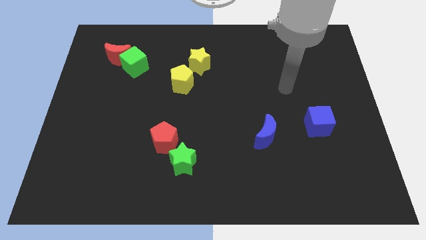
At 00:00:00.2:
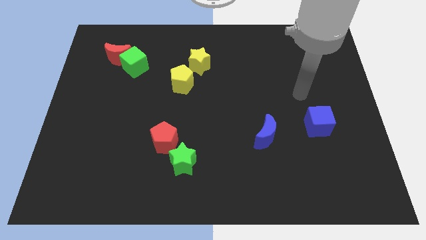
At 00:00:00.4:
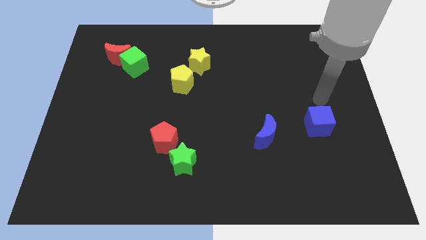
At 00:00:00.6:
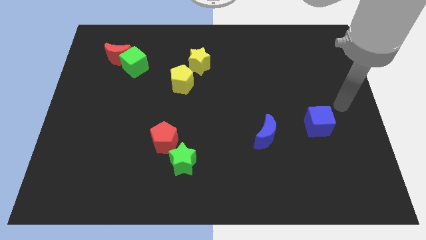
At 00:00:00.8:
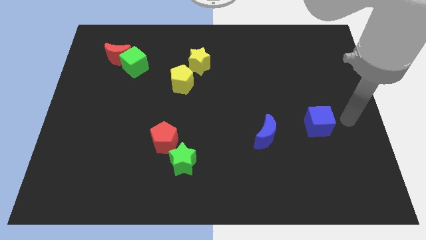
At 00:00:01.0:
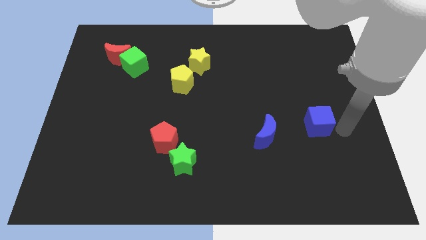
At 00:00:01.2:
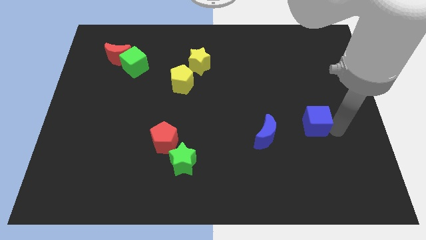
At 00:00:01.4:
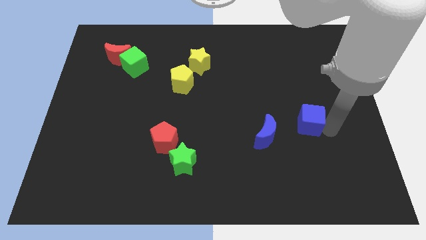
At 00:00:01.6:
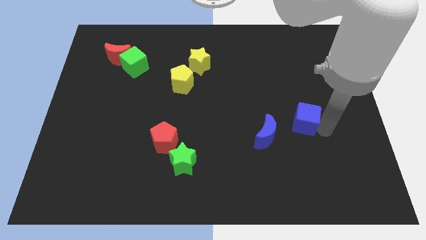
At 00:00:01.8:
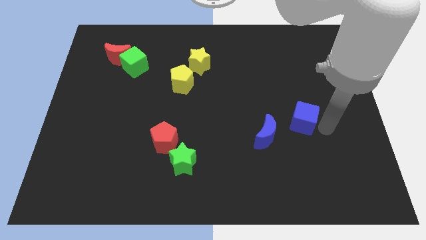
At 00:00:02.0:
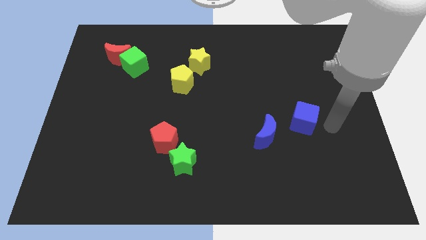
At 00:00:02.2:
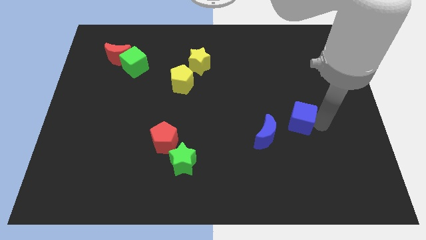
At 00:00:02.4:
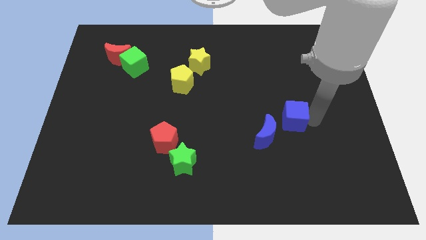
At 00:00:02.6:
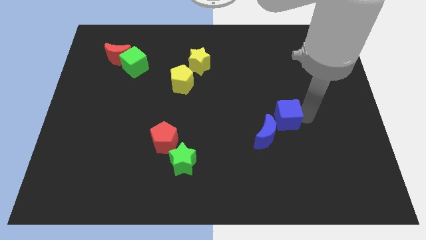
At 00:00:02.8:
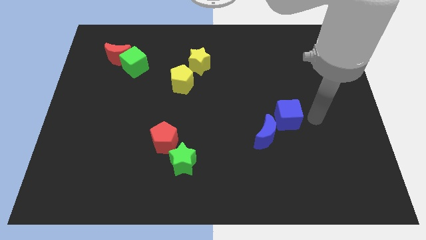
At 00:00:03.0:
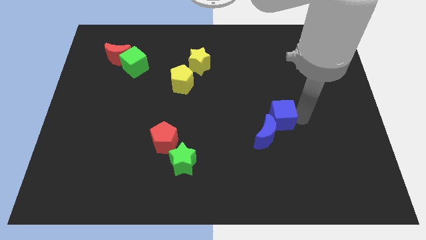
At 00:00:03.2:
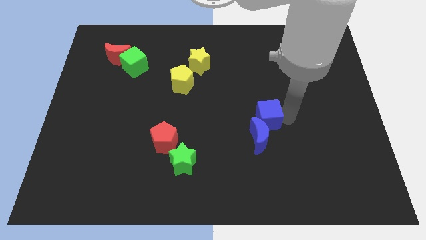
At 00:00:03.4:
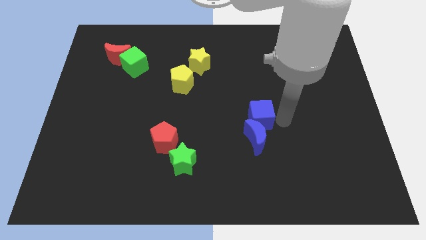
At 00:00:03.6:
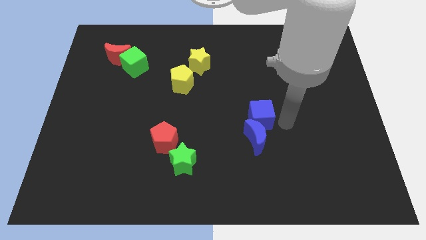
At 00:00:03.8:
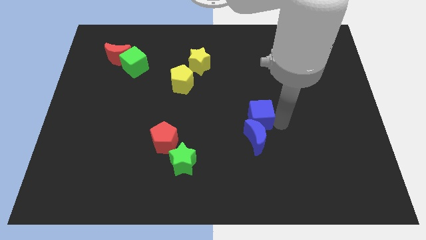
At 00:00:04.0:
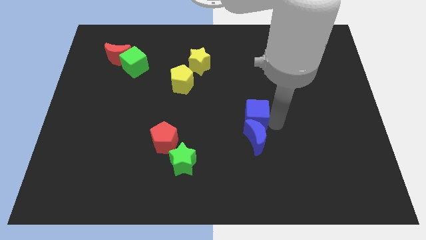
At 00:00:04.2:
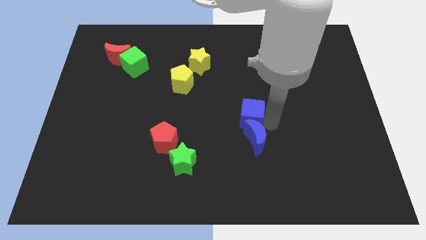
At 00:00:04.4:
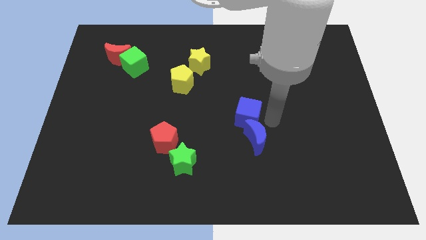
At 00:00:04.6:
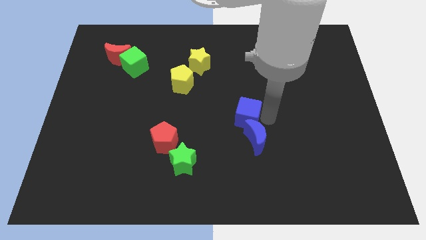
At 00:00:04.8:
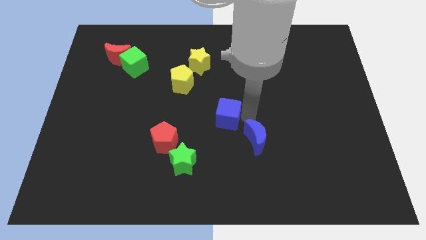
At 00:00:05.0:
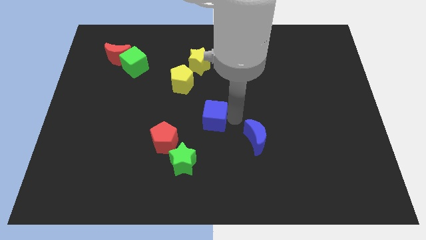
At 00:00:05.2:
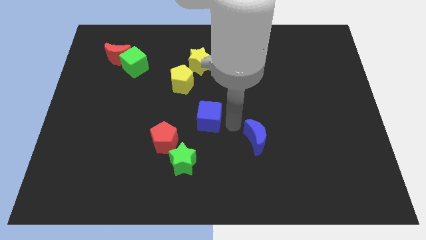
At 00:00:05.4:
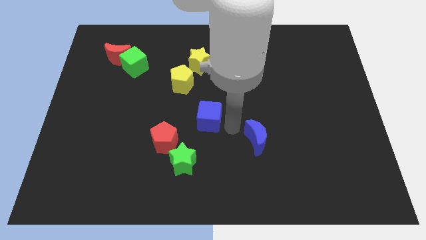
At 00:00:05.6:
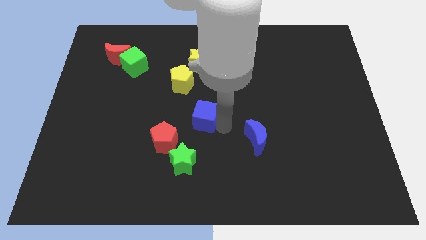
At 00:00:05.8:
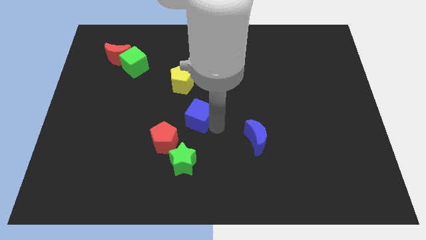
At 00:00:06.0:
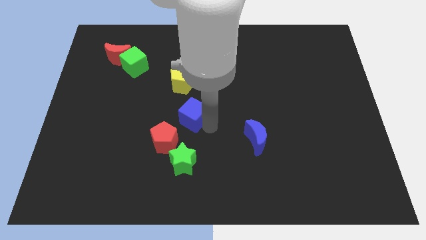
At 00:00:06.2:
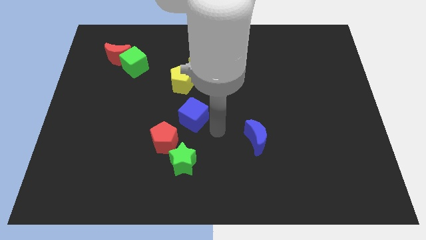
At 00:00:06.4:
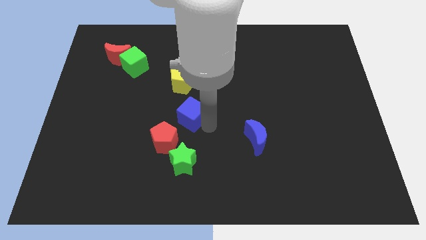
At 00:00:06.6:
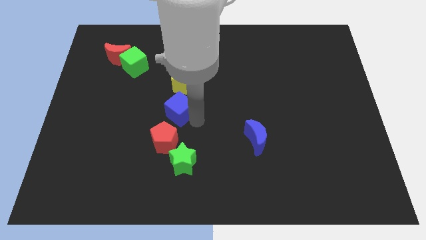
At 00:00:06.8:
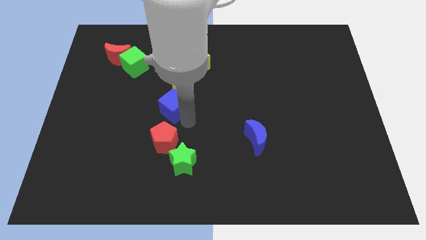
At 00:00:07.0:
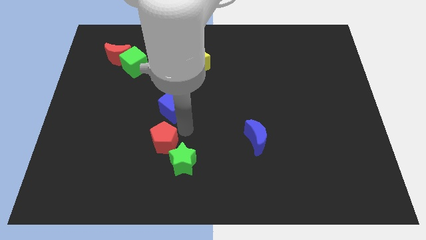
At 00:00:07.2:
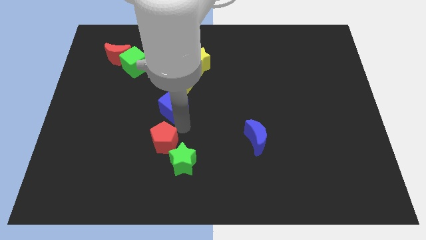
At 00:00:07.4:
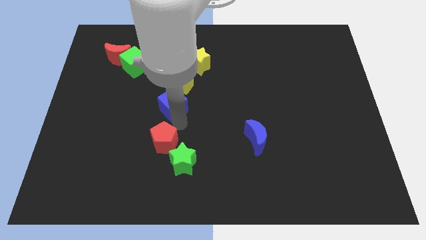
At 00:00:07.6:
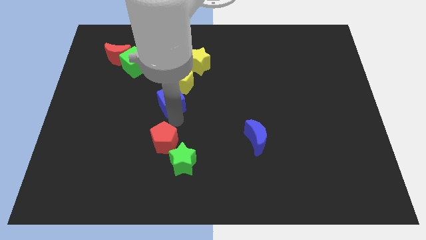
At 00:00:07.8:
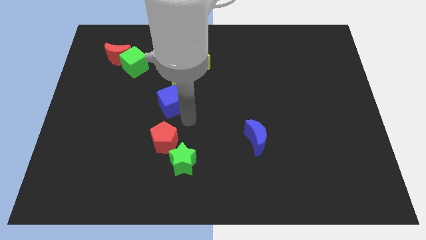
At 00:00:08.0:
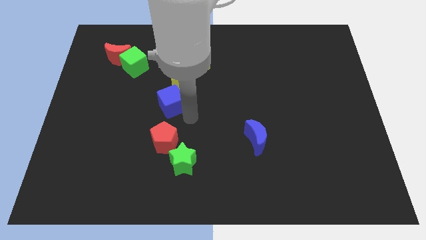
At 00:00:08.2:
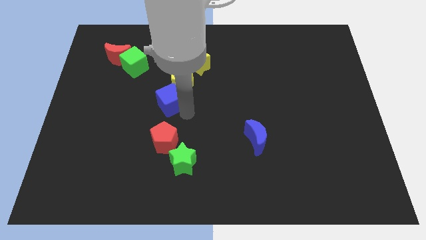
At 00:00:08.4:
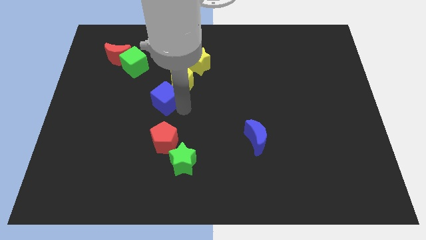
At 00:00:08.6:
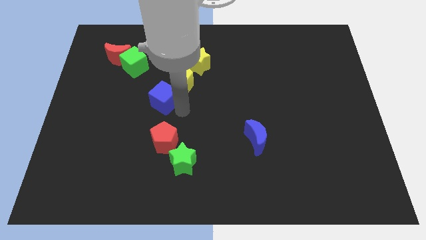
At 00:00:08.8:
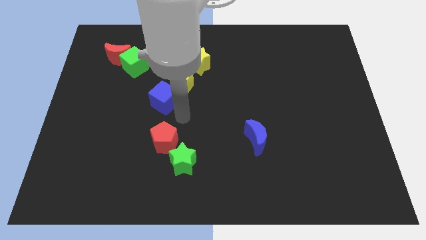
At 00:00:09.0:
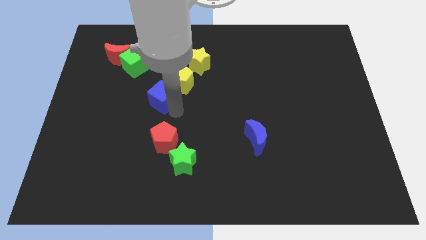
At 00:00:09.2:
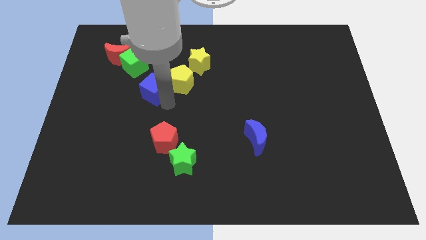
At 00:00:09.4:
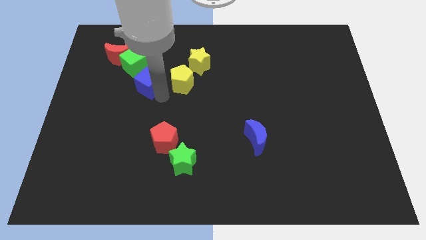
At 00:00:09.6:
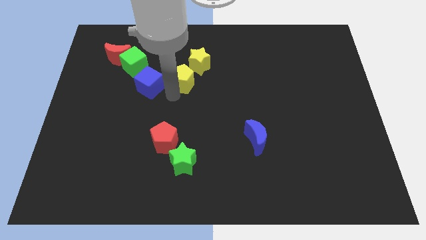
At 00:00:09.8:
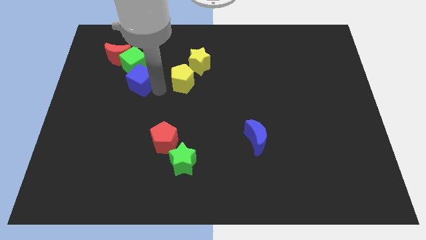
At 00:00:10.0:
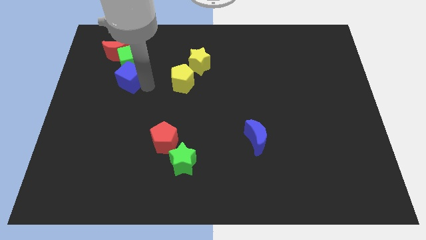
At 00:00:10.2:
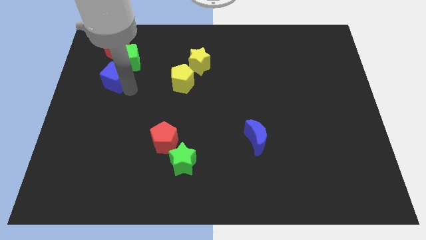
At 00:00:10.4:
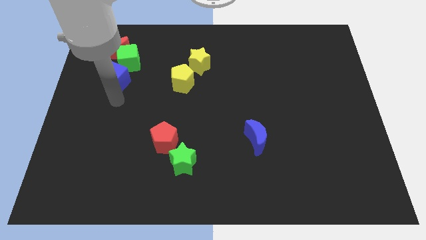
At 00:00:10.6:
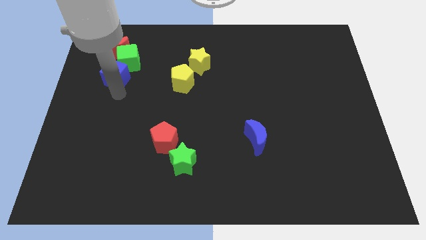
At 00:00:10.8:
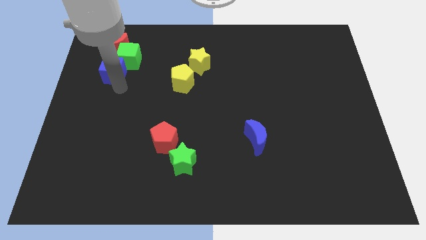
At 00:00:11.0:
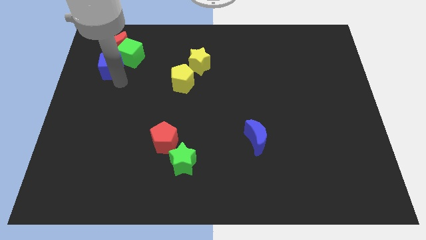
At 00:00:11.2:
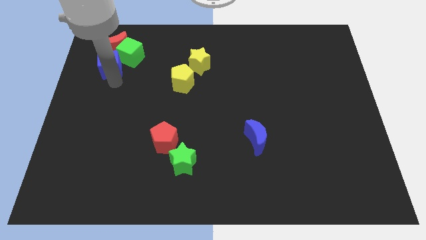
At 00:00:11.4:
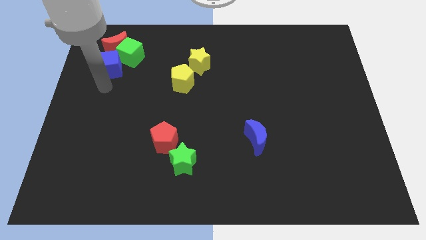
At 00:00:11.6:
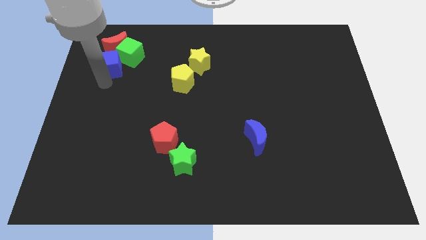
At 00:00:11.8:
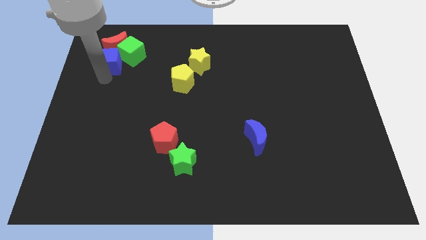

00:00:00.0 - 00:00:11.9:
put the blue cube to the red moon

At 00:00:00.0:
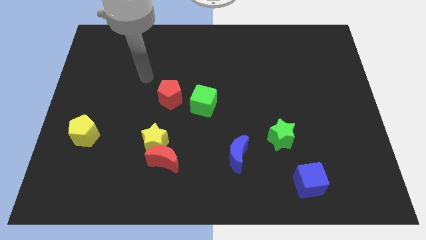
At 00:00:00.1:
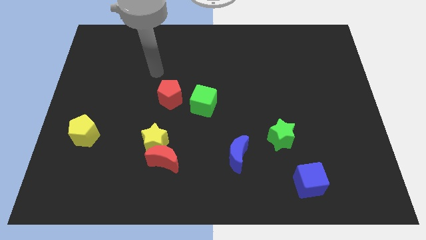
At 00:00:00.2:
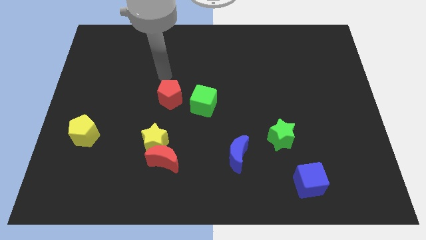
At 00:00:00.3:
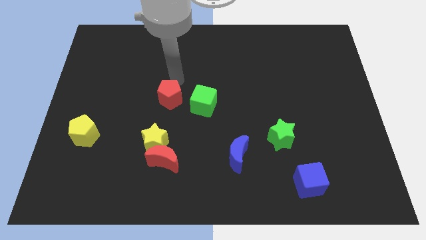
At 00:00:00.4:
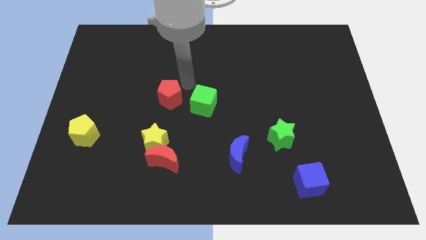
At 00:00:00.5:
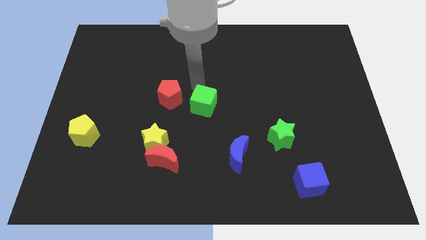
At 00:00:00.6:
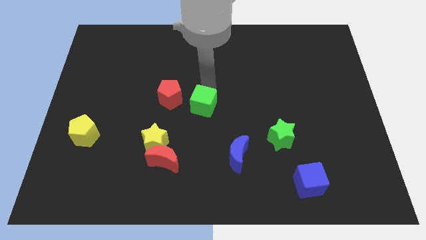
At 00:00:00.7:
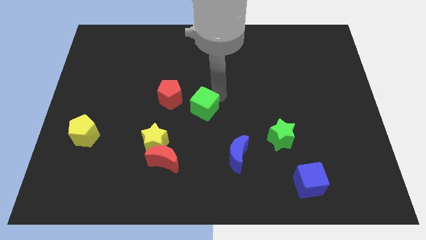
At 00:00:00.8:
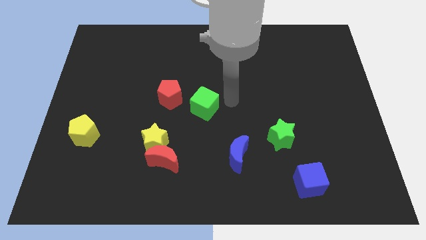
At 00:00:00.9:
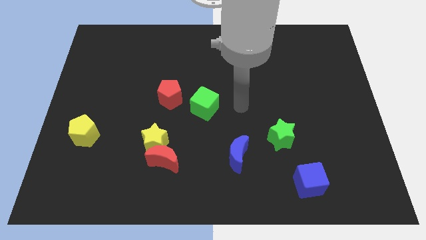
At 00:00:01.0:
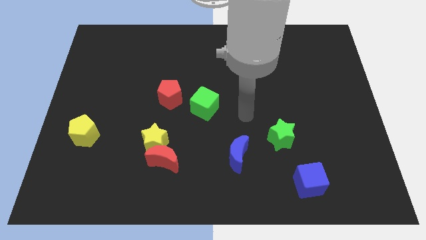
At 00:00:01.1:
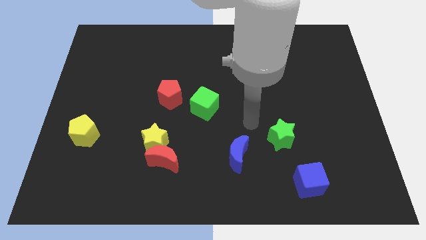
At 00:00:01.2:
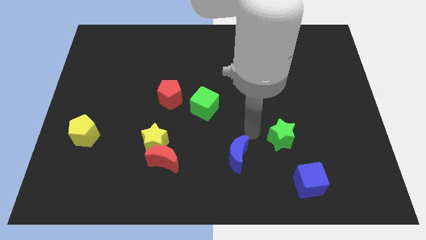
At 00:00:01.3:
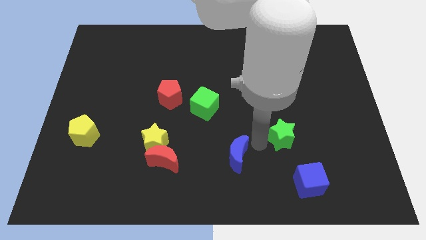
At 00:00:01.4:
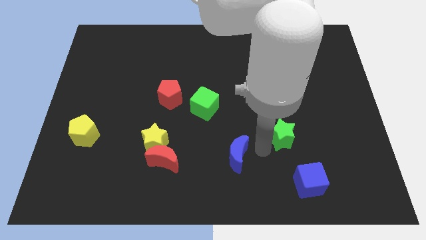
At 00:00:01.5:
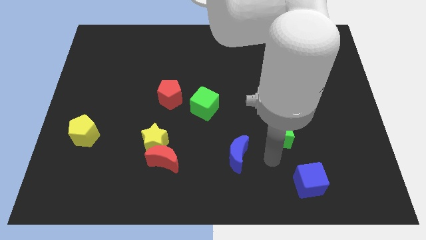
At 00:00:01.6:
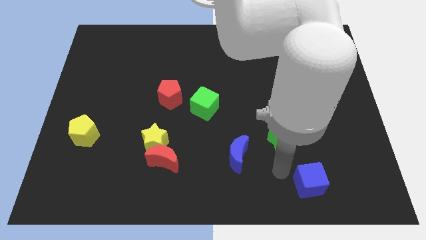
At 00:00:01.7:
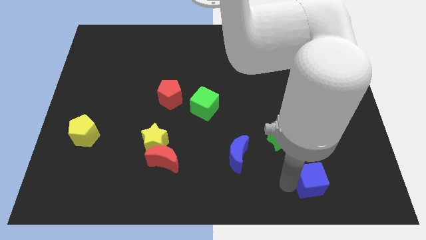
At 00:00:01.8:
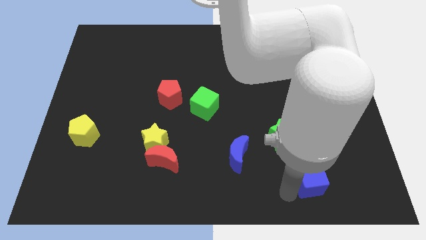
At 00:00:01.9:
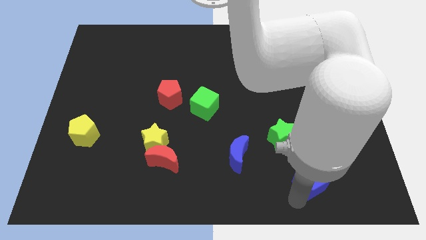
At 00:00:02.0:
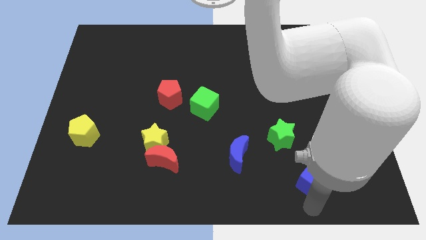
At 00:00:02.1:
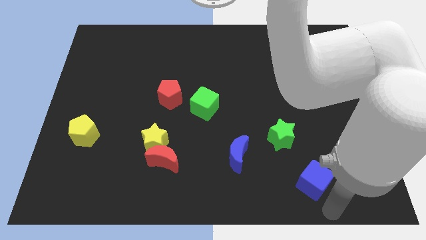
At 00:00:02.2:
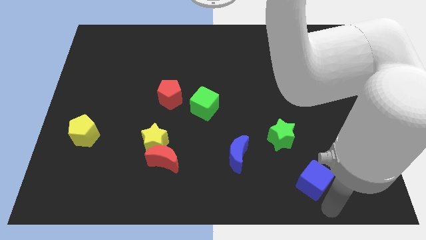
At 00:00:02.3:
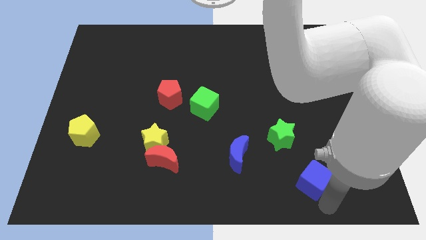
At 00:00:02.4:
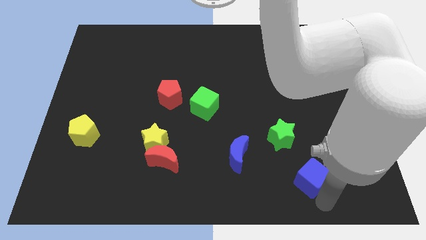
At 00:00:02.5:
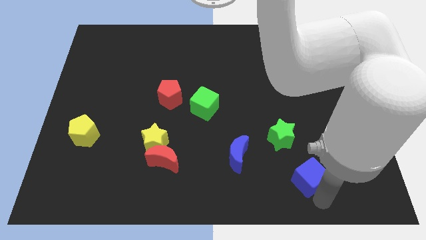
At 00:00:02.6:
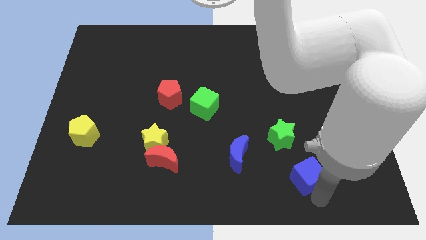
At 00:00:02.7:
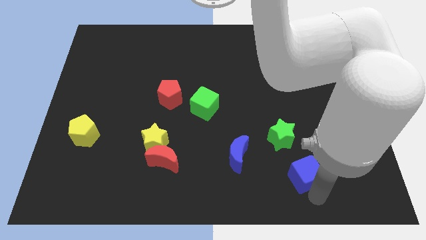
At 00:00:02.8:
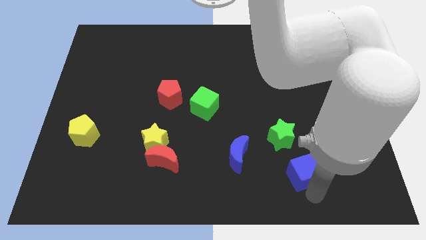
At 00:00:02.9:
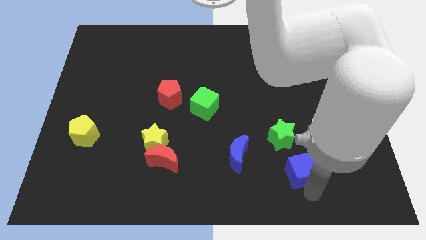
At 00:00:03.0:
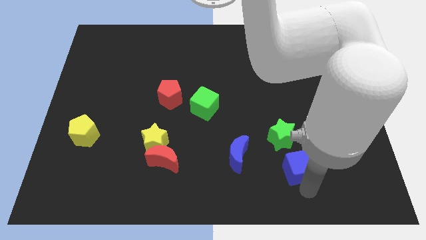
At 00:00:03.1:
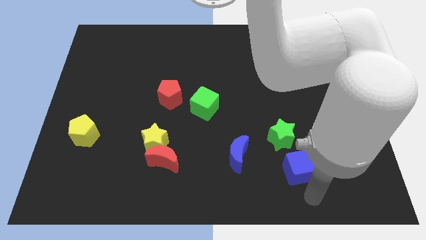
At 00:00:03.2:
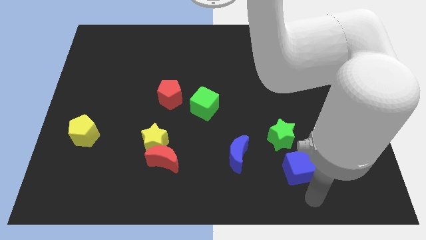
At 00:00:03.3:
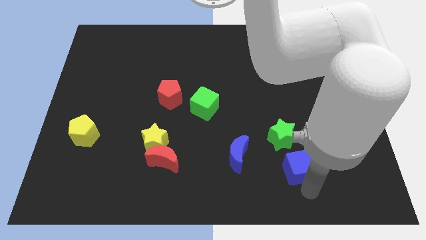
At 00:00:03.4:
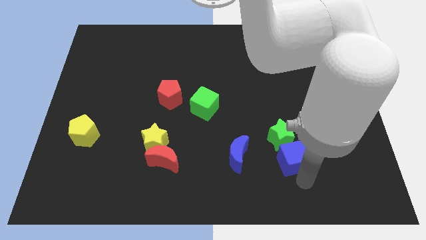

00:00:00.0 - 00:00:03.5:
move the blue cube close to the green star
